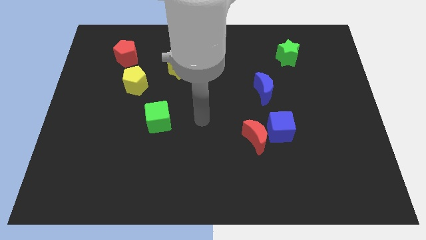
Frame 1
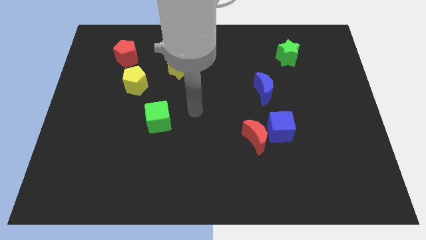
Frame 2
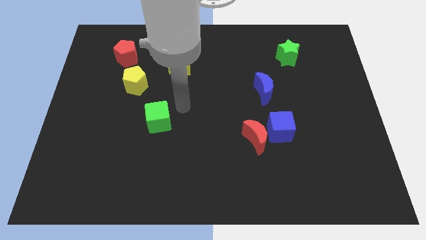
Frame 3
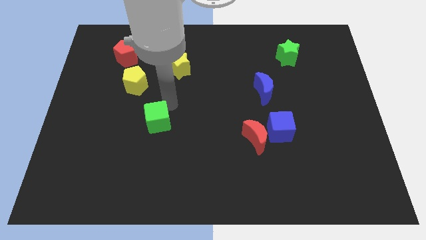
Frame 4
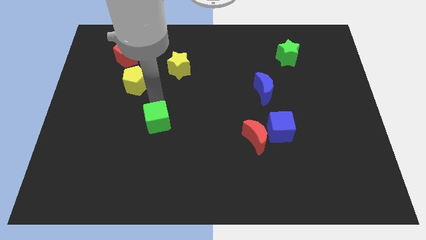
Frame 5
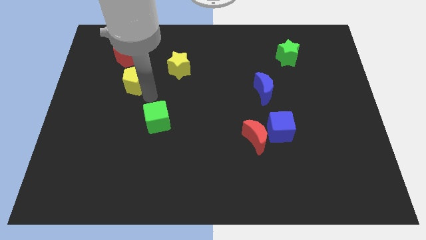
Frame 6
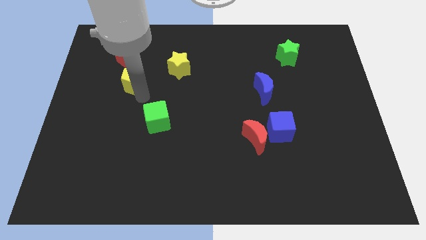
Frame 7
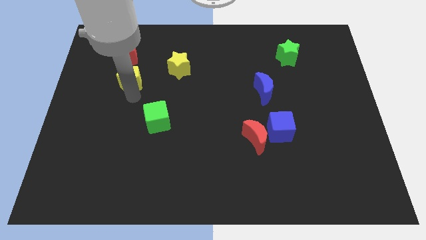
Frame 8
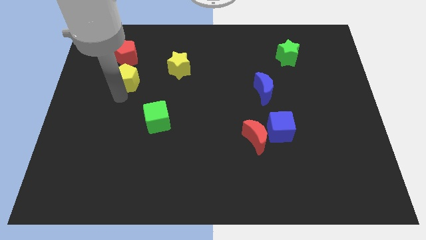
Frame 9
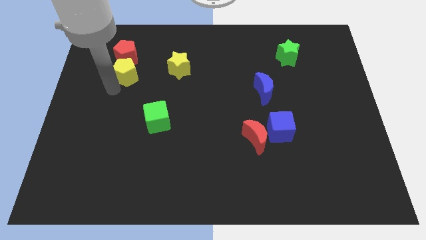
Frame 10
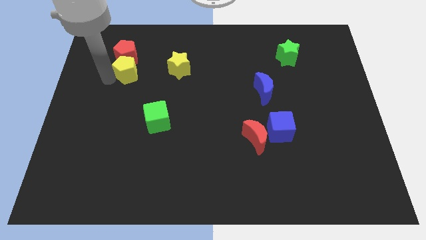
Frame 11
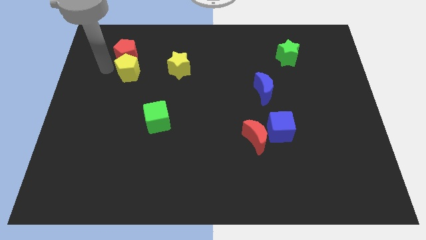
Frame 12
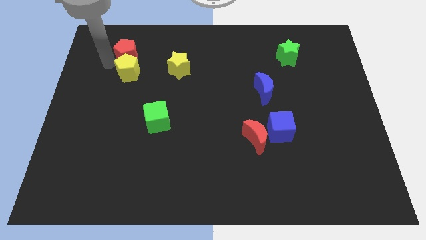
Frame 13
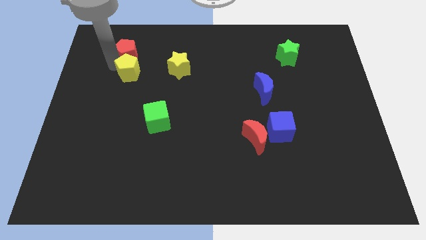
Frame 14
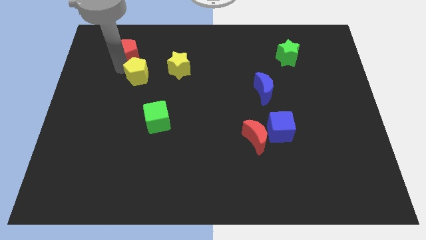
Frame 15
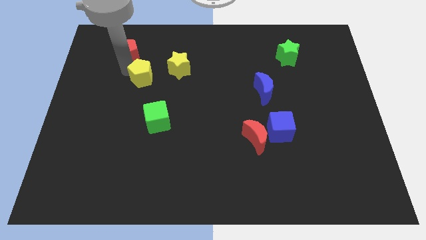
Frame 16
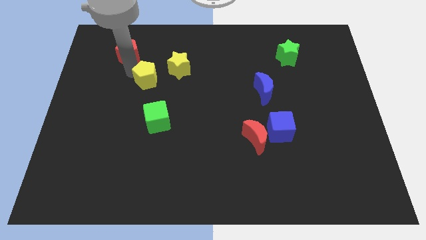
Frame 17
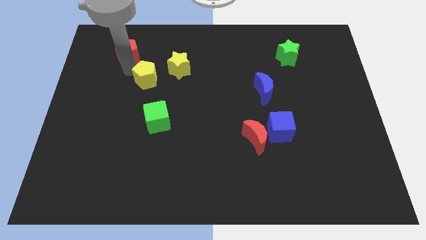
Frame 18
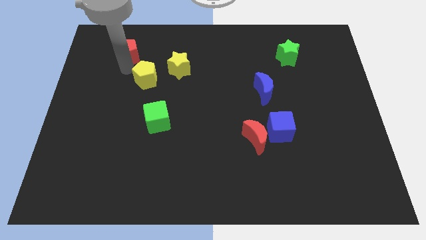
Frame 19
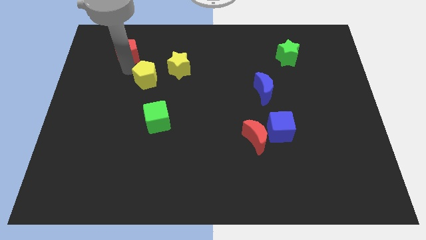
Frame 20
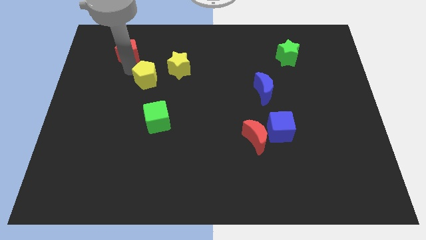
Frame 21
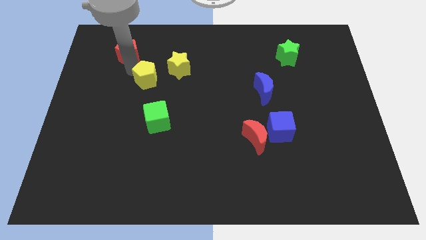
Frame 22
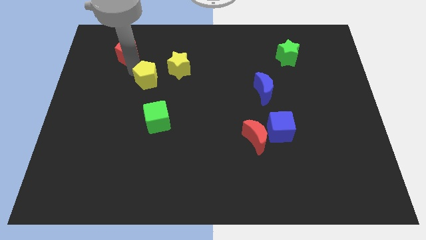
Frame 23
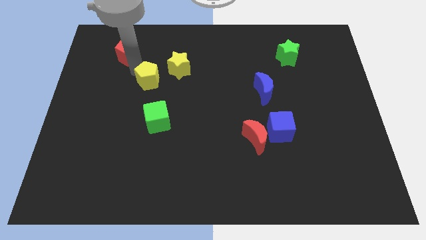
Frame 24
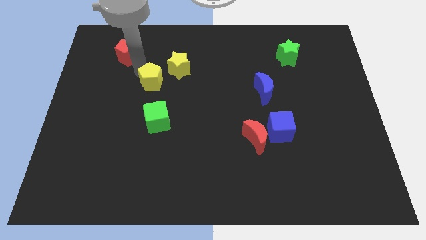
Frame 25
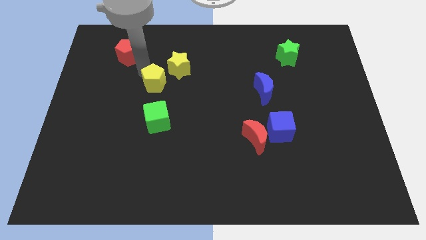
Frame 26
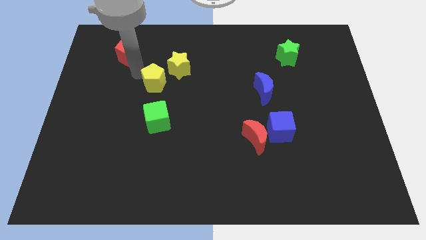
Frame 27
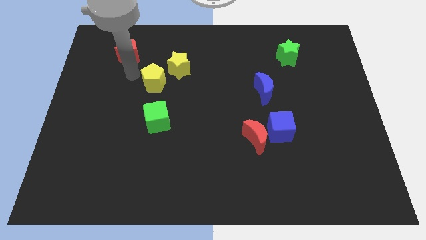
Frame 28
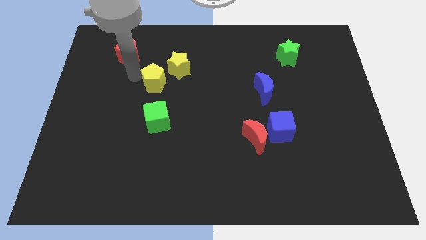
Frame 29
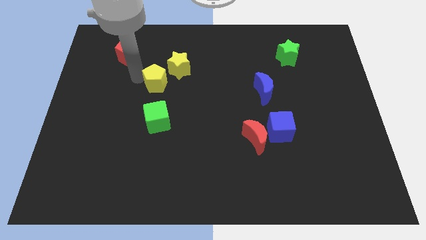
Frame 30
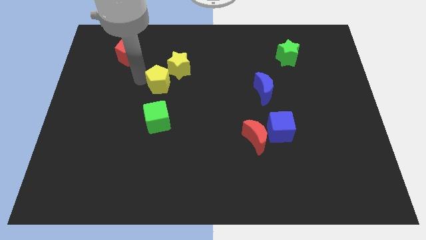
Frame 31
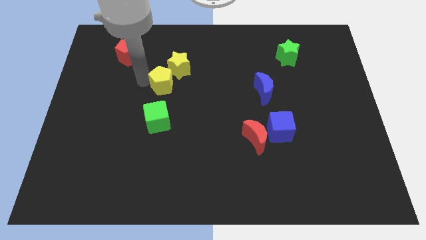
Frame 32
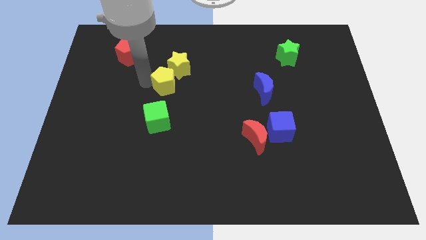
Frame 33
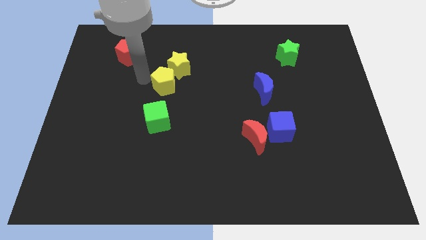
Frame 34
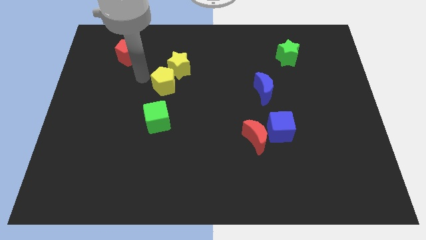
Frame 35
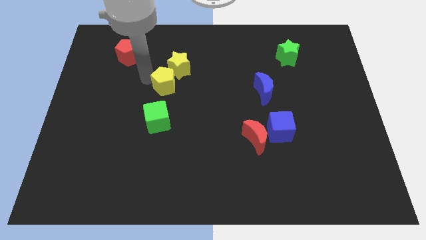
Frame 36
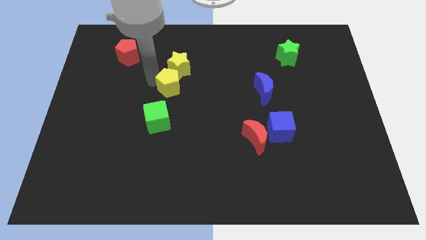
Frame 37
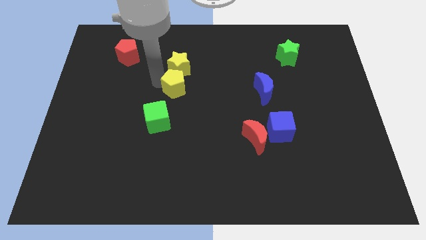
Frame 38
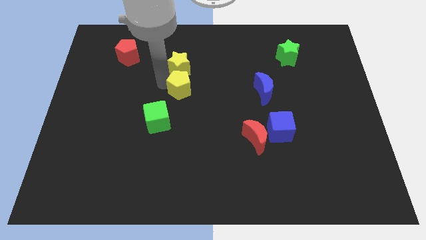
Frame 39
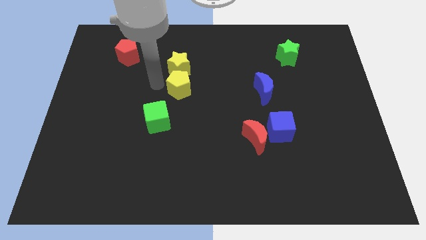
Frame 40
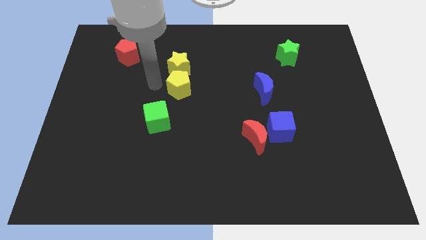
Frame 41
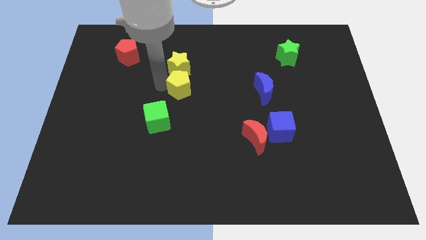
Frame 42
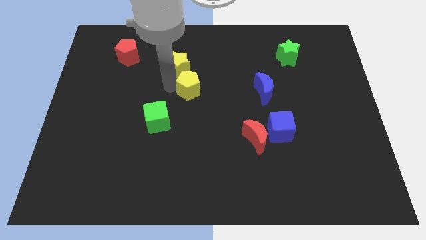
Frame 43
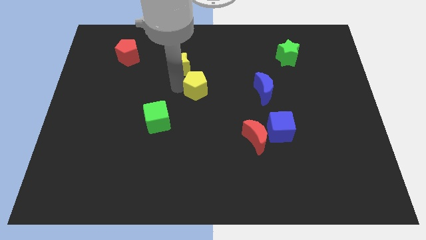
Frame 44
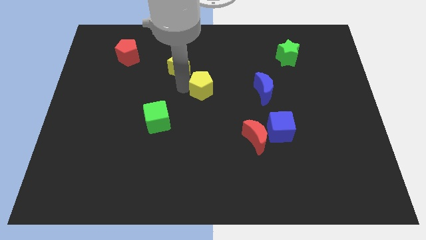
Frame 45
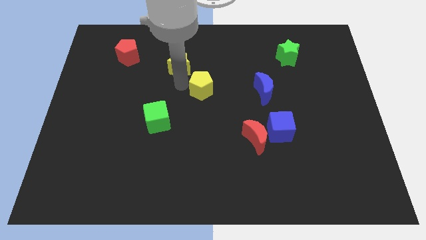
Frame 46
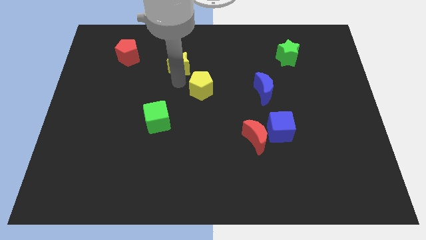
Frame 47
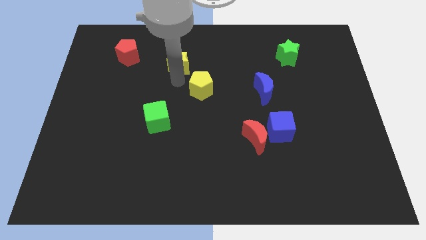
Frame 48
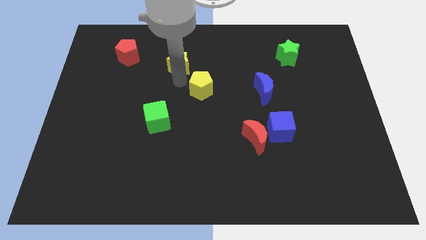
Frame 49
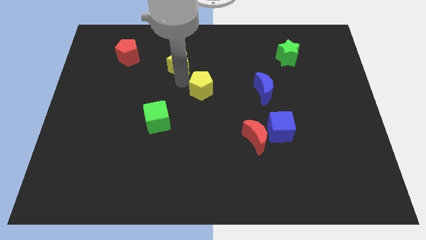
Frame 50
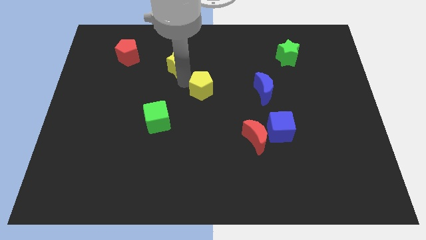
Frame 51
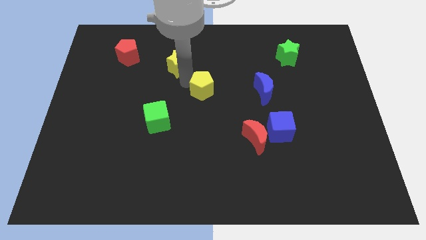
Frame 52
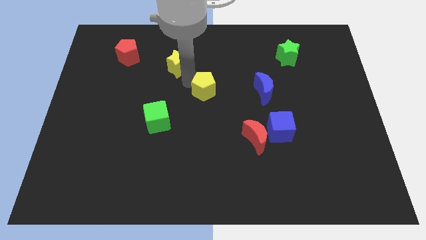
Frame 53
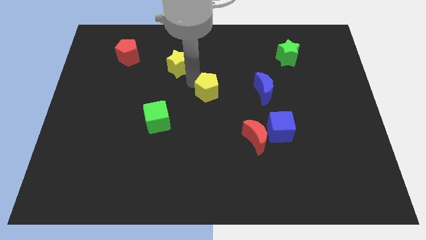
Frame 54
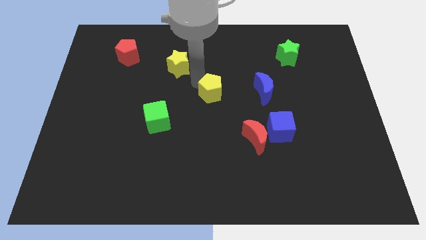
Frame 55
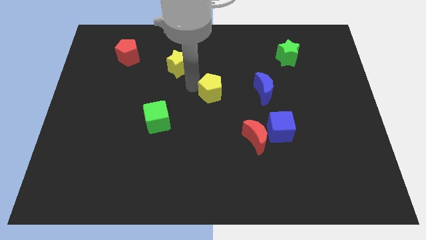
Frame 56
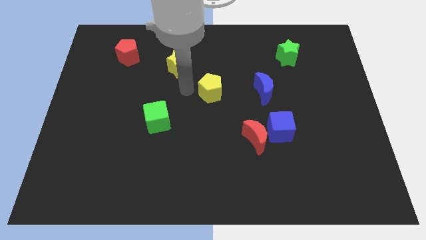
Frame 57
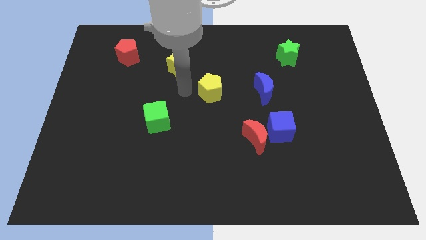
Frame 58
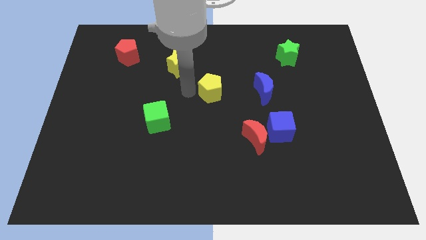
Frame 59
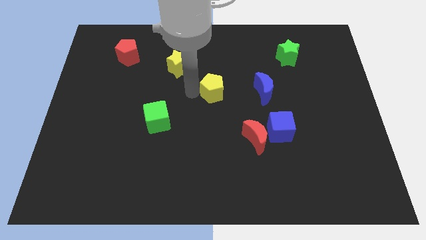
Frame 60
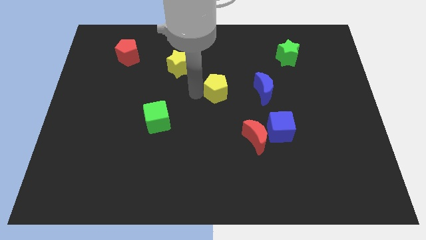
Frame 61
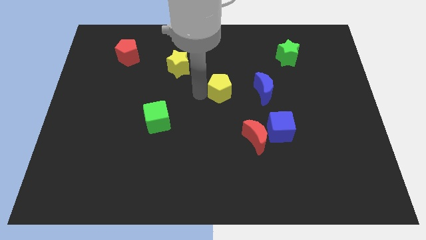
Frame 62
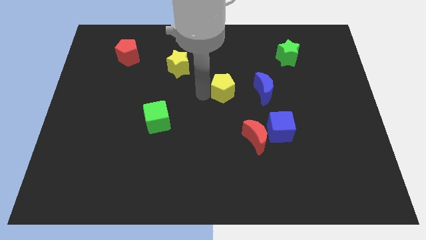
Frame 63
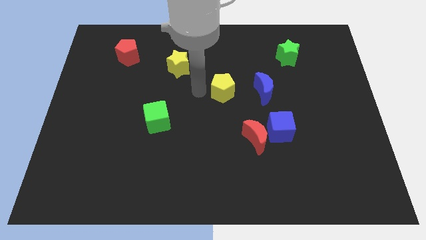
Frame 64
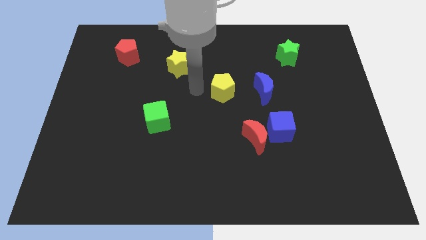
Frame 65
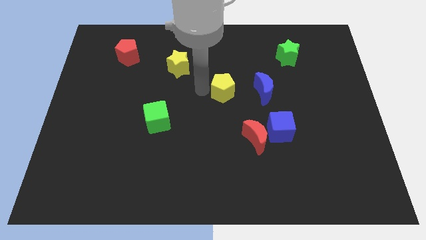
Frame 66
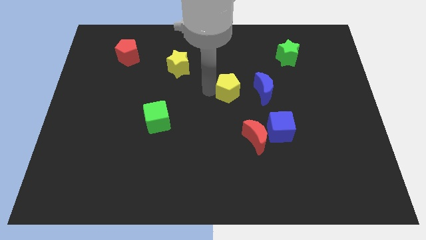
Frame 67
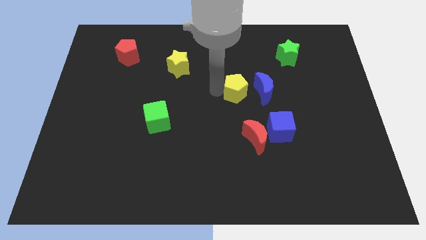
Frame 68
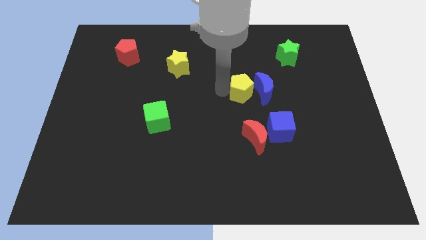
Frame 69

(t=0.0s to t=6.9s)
push the yellow pentagon close to the blue moon

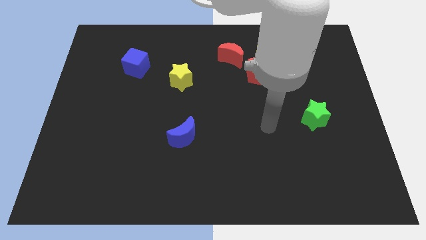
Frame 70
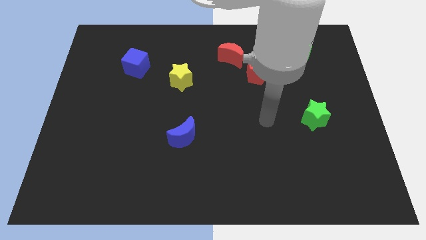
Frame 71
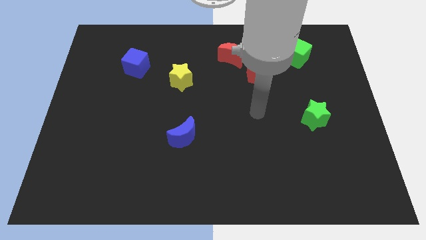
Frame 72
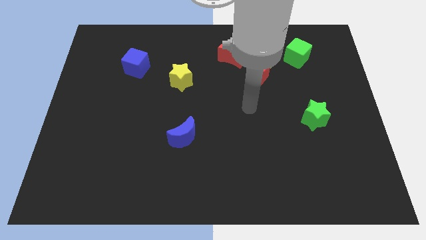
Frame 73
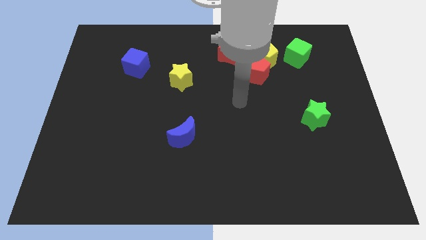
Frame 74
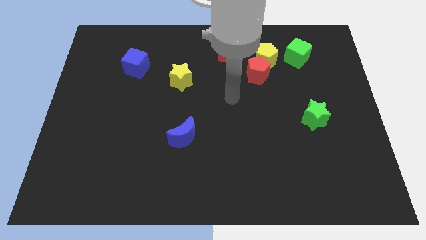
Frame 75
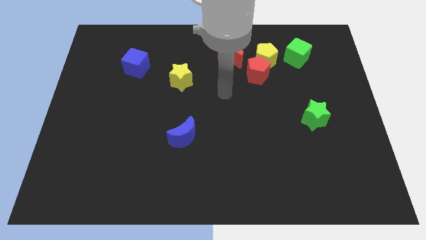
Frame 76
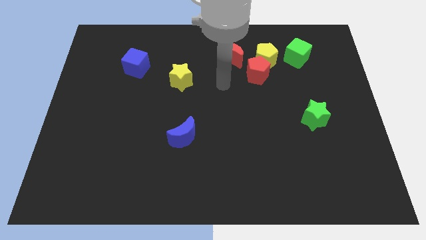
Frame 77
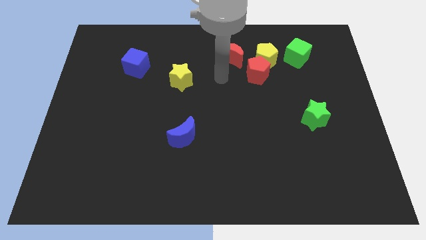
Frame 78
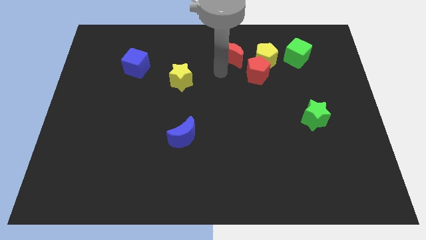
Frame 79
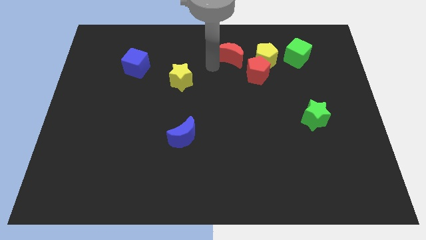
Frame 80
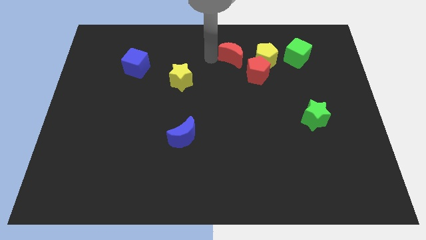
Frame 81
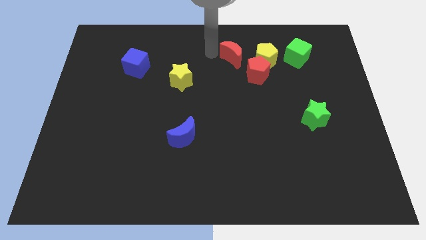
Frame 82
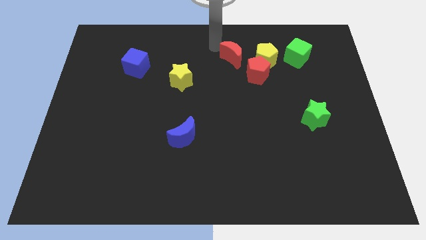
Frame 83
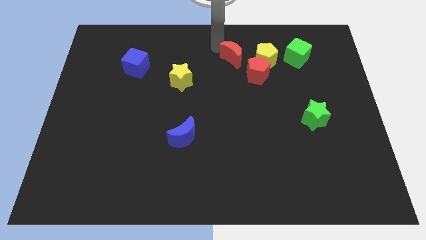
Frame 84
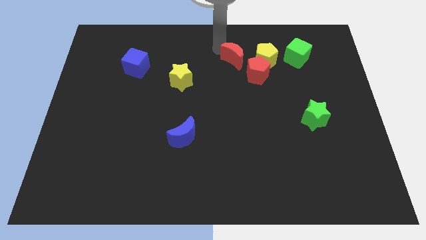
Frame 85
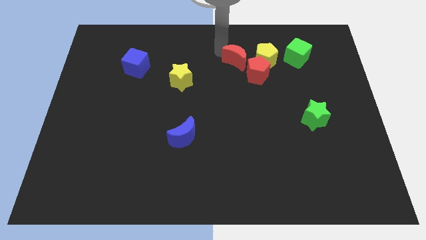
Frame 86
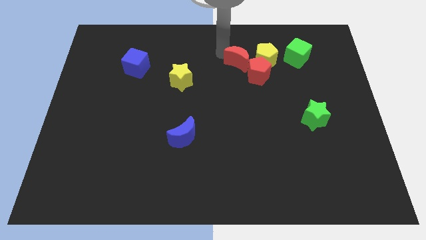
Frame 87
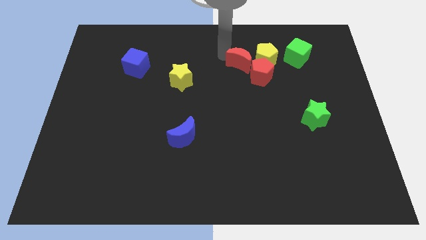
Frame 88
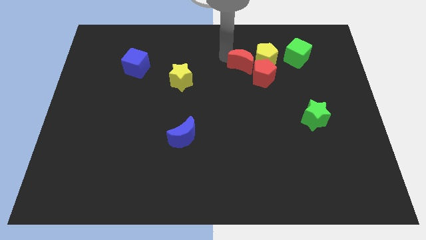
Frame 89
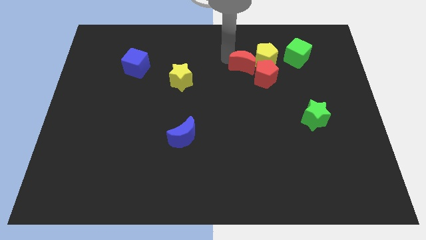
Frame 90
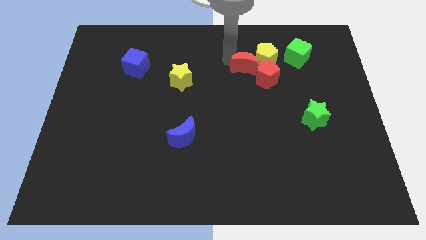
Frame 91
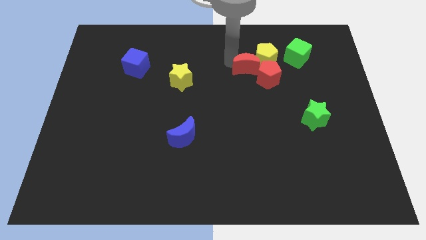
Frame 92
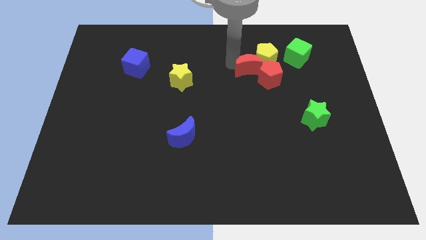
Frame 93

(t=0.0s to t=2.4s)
move the red moon close to the red pentagon
